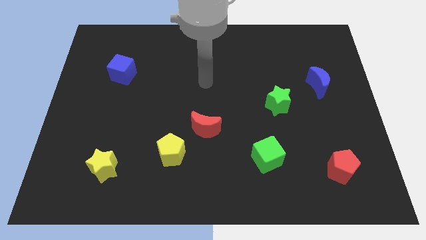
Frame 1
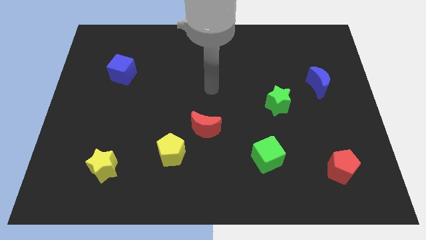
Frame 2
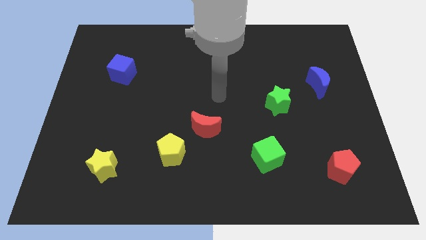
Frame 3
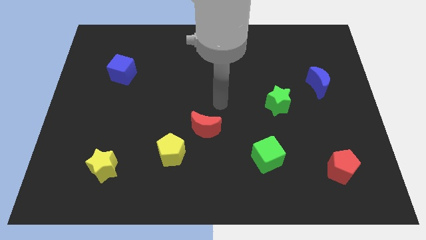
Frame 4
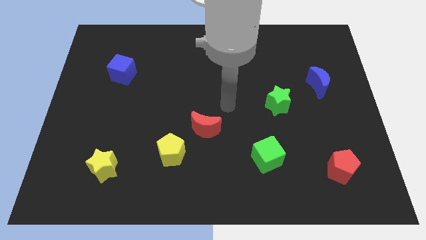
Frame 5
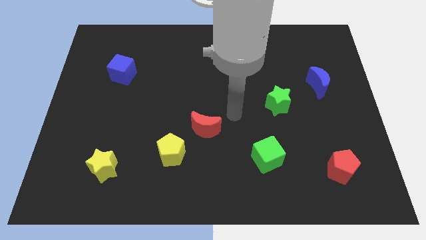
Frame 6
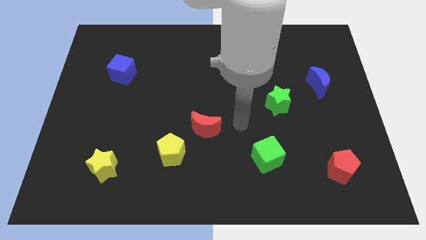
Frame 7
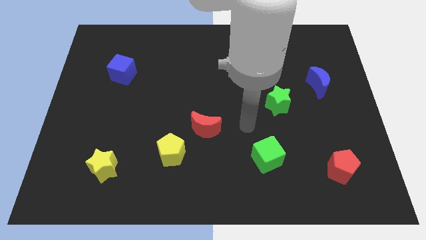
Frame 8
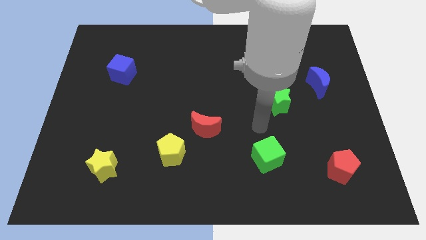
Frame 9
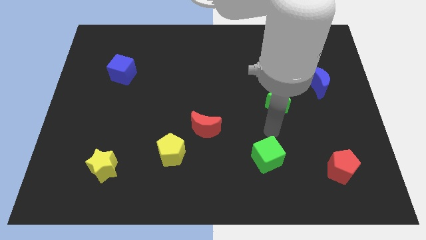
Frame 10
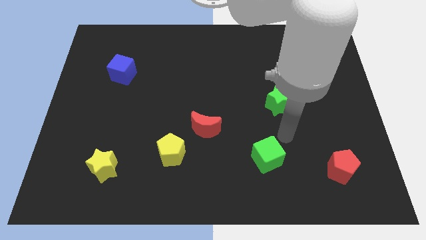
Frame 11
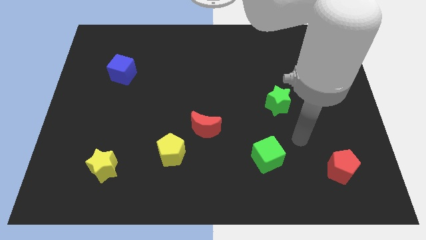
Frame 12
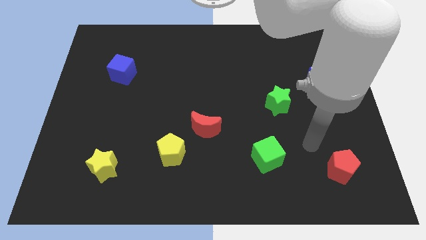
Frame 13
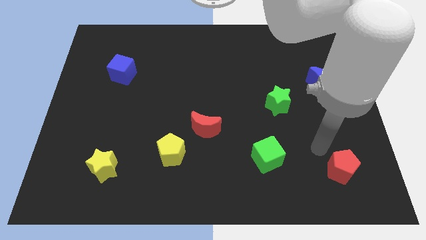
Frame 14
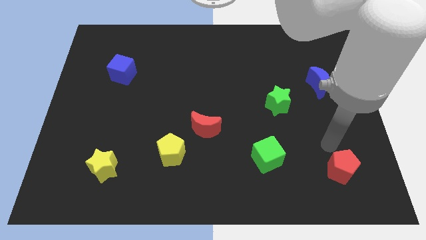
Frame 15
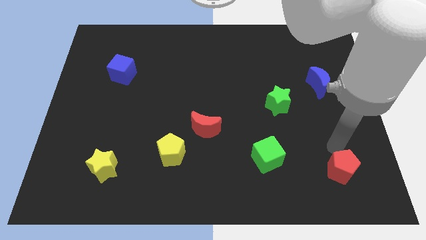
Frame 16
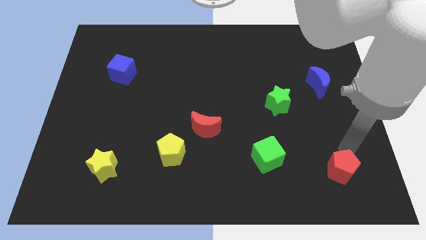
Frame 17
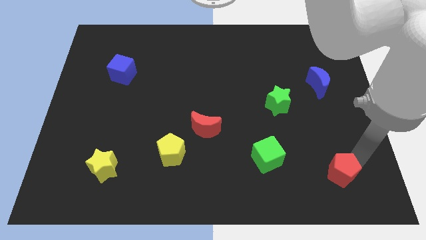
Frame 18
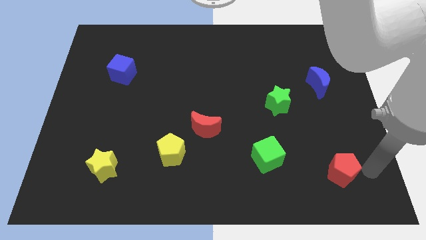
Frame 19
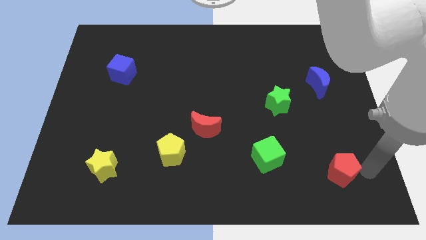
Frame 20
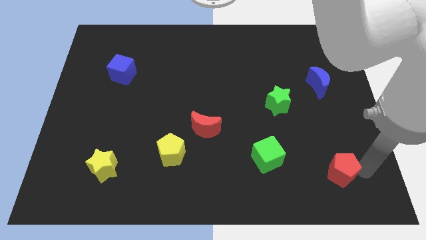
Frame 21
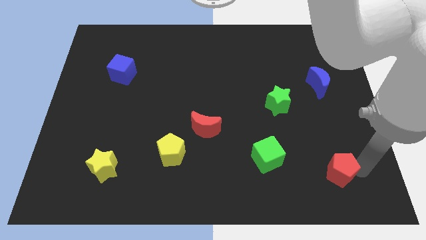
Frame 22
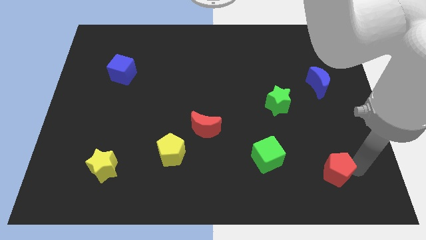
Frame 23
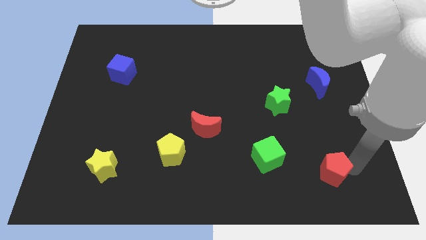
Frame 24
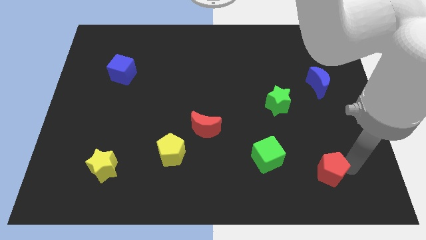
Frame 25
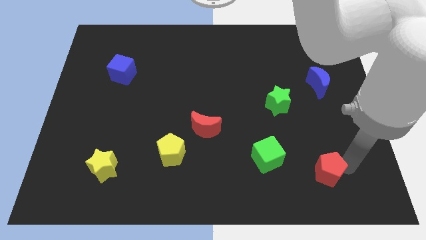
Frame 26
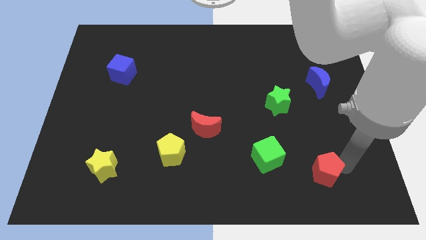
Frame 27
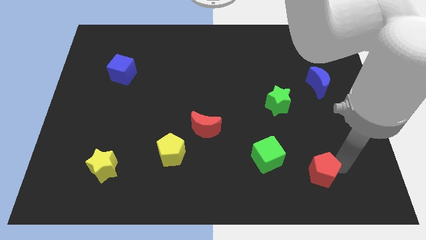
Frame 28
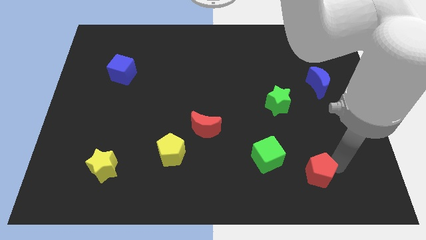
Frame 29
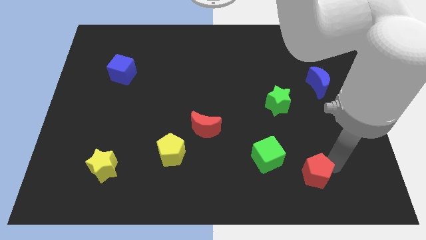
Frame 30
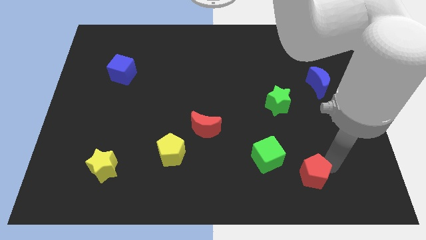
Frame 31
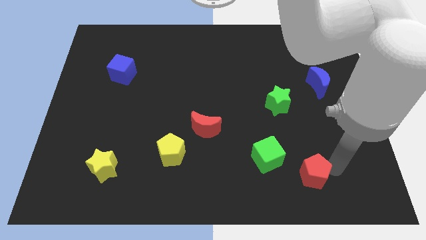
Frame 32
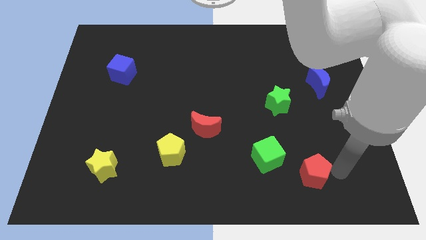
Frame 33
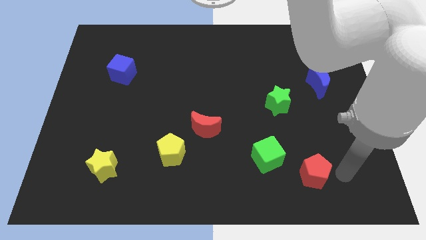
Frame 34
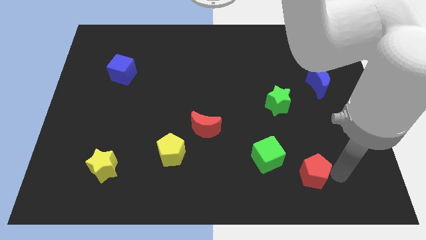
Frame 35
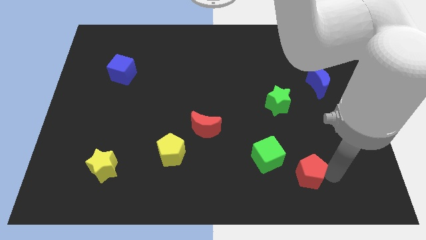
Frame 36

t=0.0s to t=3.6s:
slide the red pentagon to the left a bit

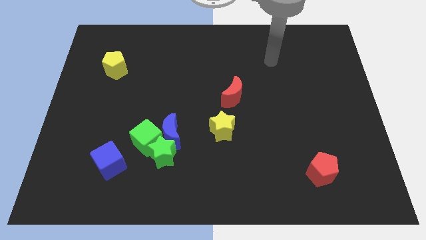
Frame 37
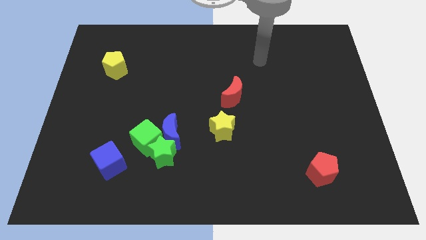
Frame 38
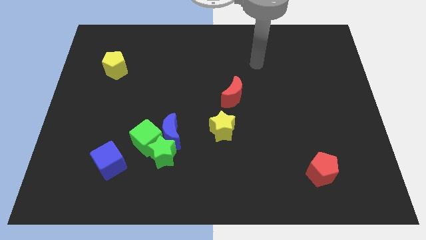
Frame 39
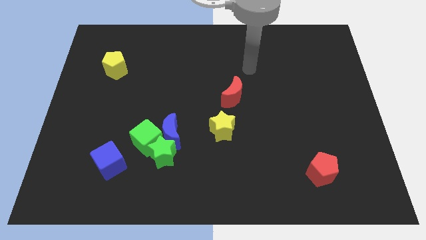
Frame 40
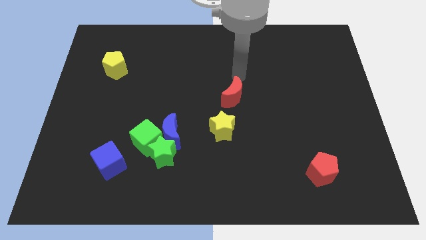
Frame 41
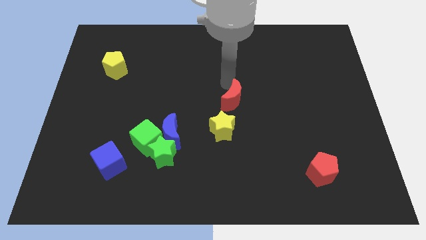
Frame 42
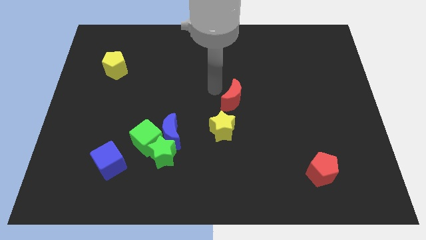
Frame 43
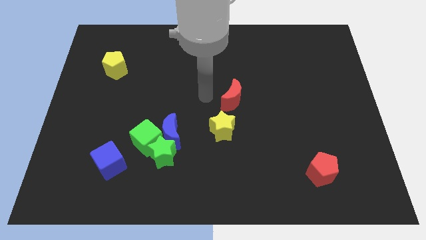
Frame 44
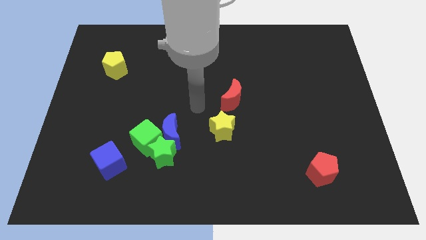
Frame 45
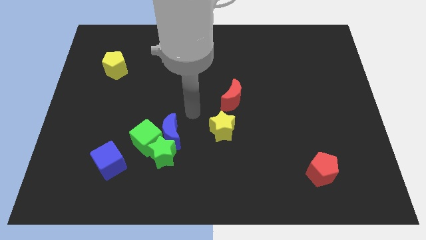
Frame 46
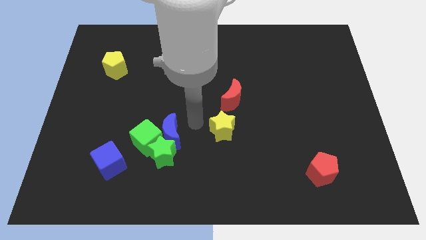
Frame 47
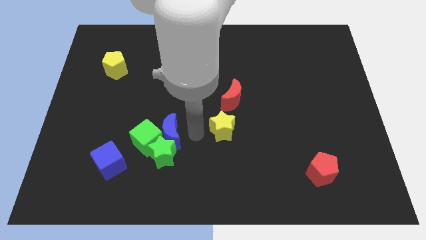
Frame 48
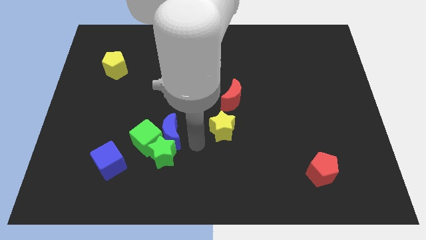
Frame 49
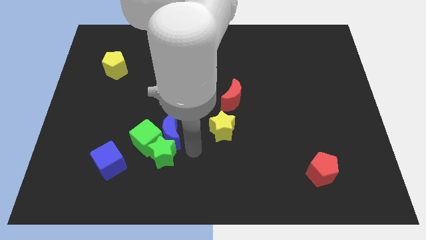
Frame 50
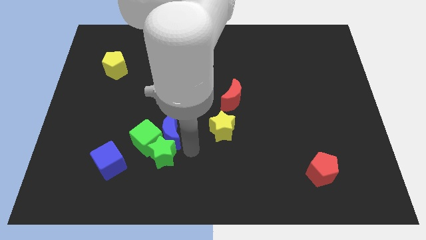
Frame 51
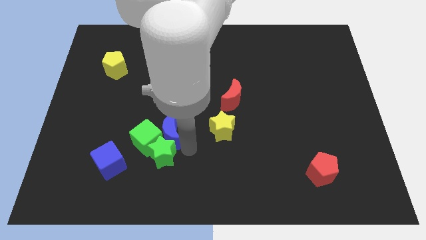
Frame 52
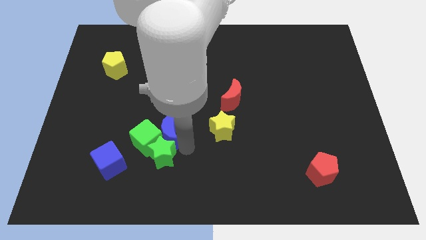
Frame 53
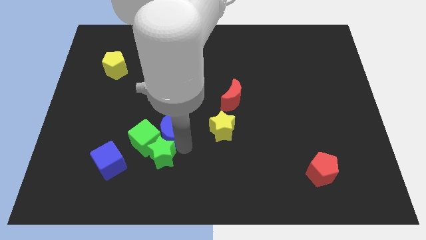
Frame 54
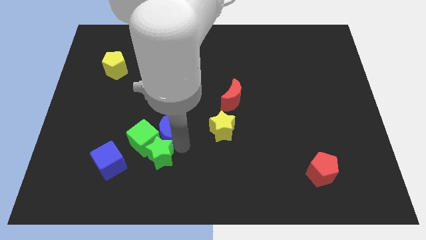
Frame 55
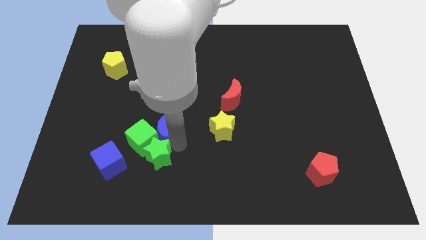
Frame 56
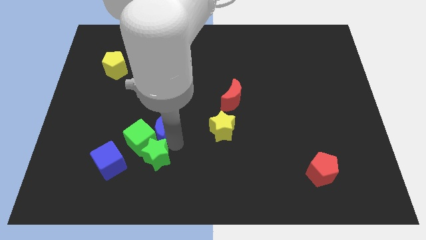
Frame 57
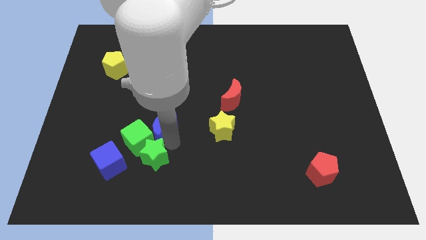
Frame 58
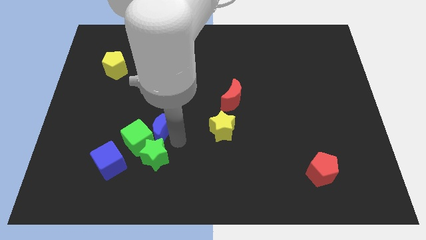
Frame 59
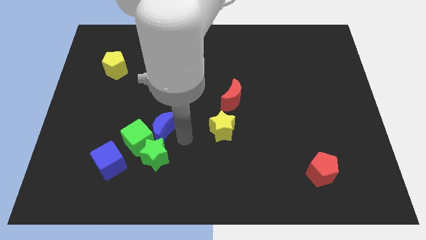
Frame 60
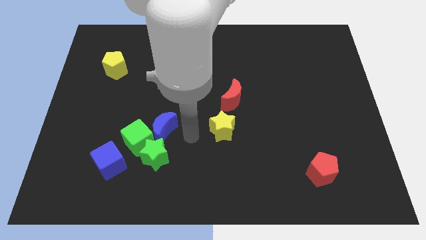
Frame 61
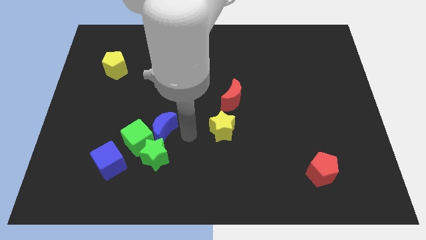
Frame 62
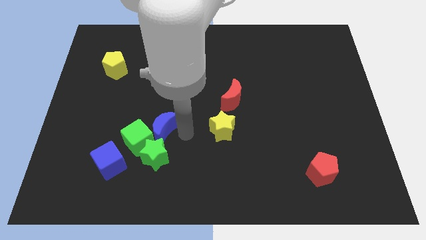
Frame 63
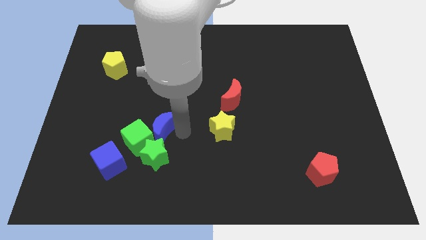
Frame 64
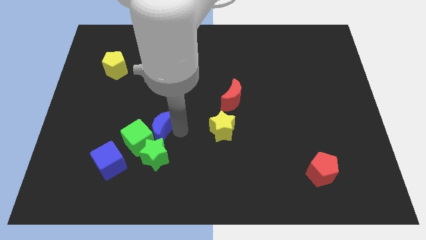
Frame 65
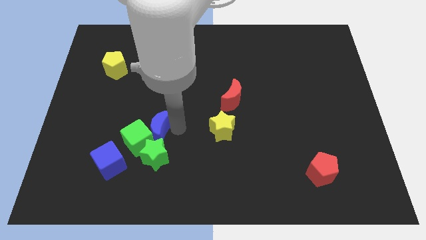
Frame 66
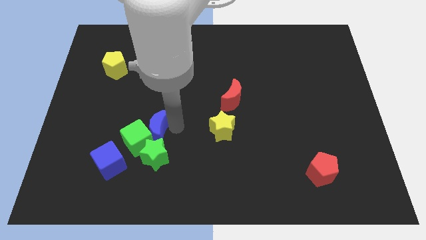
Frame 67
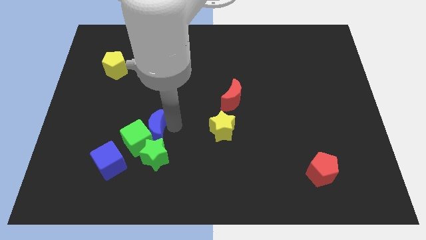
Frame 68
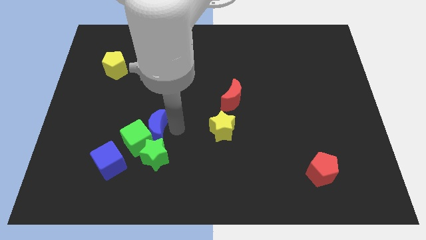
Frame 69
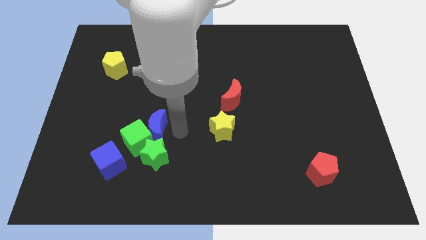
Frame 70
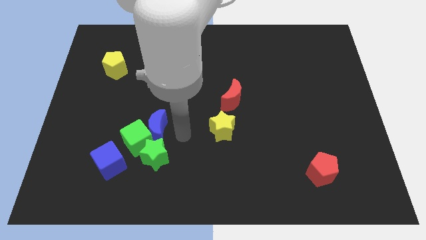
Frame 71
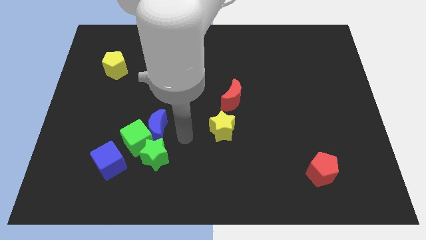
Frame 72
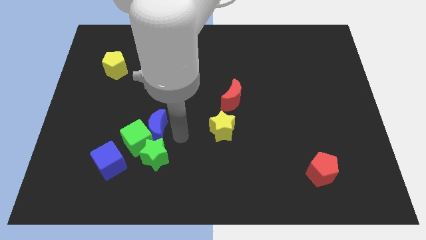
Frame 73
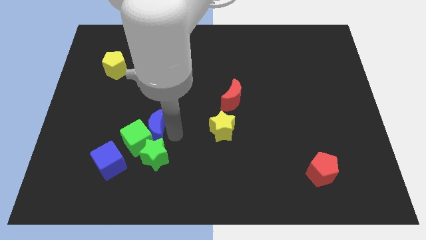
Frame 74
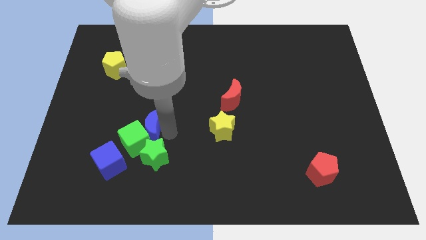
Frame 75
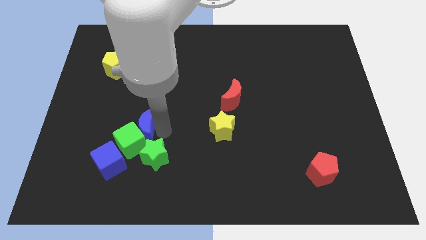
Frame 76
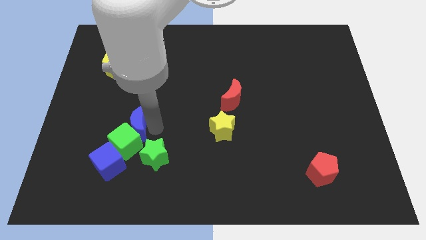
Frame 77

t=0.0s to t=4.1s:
push the blue moon to the left a little bit

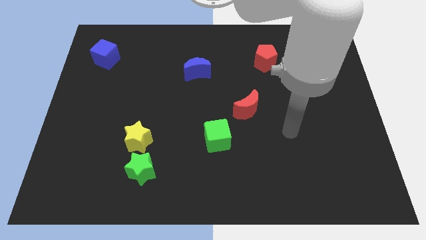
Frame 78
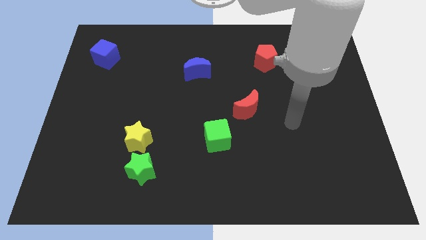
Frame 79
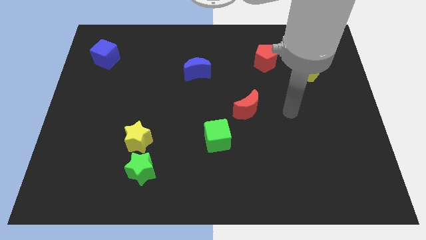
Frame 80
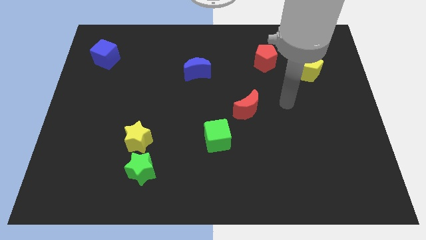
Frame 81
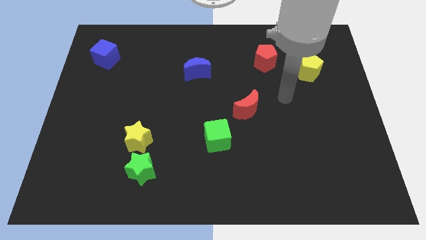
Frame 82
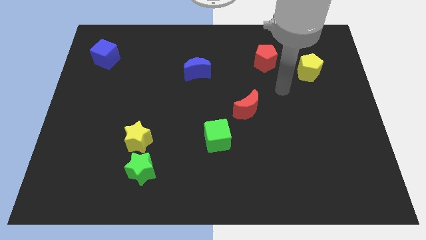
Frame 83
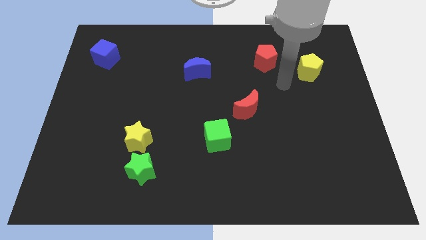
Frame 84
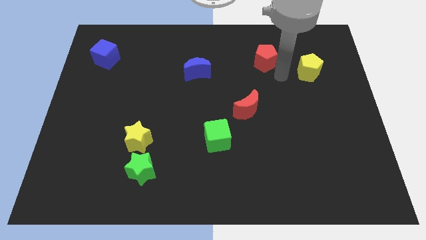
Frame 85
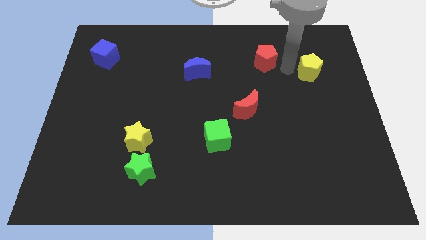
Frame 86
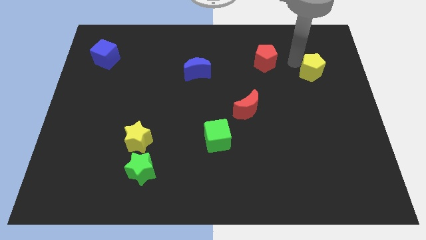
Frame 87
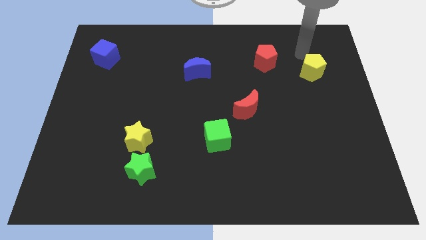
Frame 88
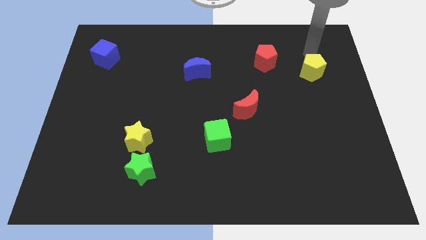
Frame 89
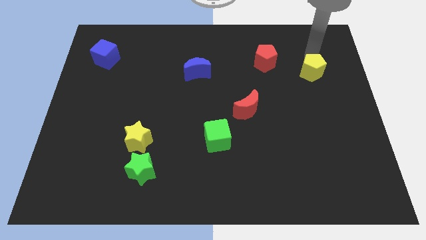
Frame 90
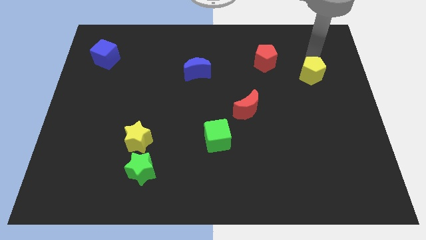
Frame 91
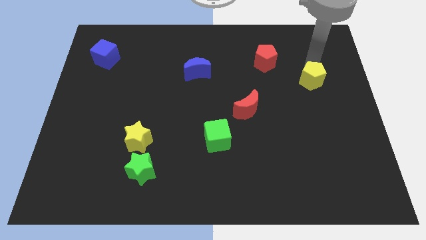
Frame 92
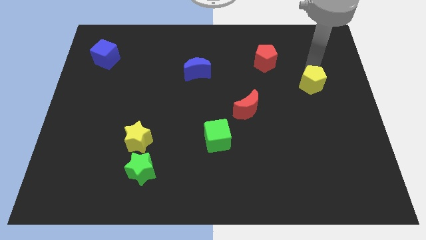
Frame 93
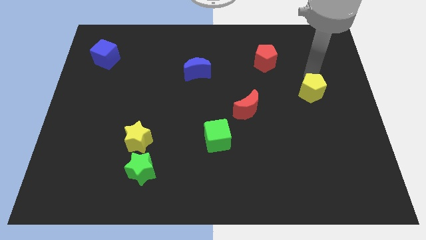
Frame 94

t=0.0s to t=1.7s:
slide the yellow pentagon down a bit
